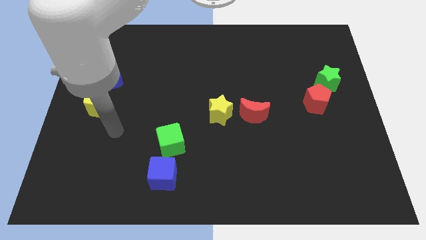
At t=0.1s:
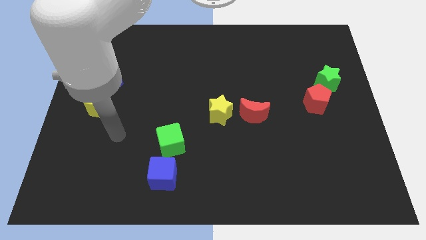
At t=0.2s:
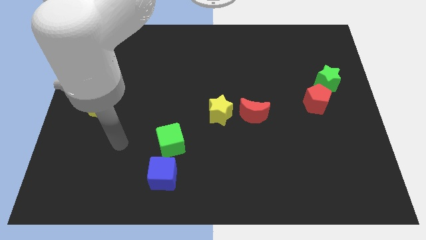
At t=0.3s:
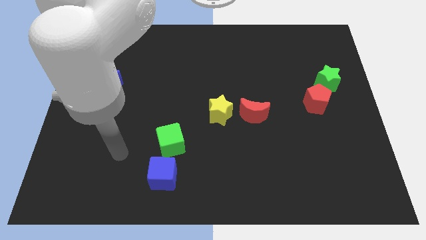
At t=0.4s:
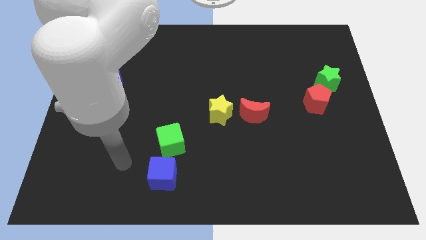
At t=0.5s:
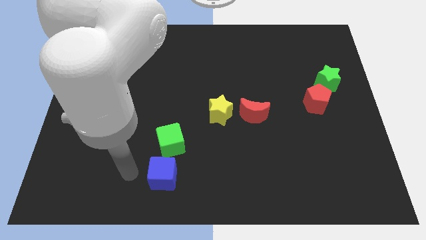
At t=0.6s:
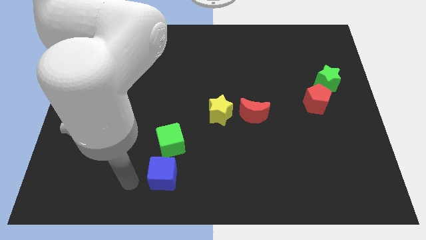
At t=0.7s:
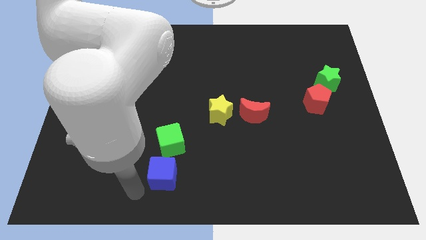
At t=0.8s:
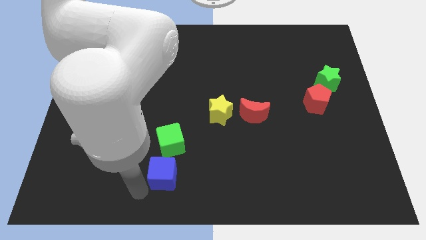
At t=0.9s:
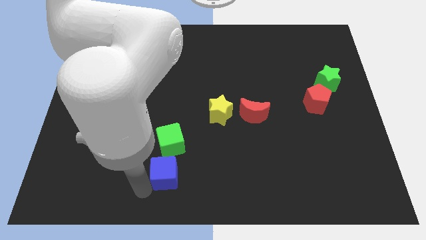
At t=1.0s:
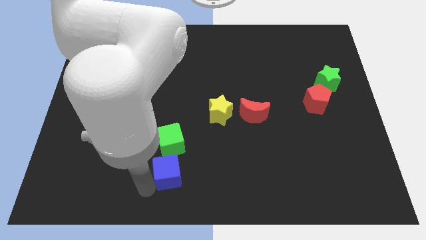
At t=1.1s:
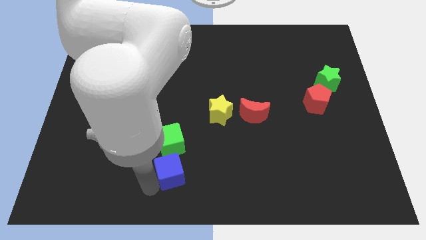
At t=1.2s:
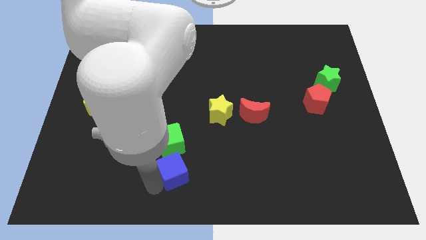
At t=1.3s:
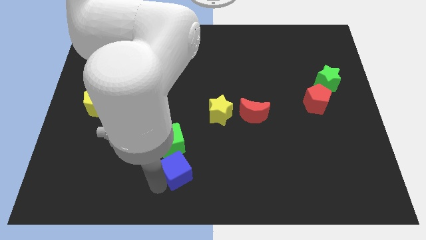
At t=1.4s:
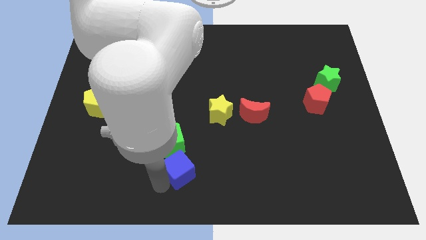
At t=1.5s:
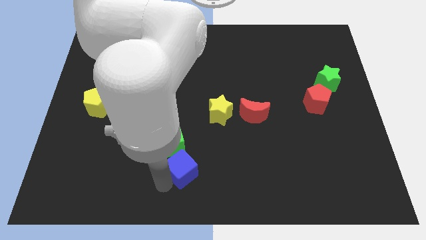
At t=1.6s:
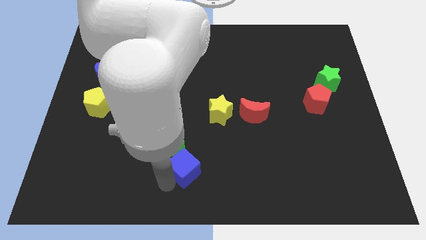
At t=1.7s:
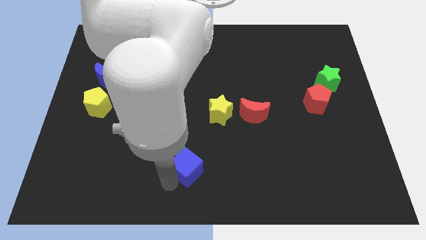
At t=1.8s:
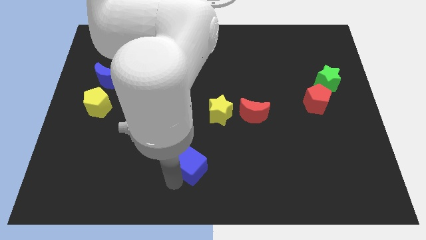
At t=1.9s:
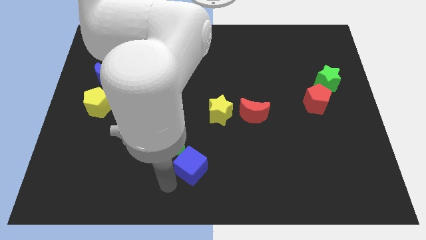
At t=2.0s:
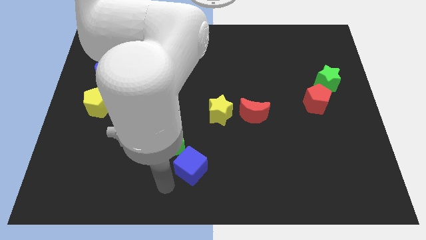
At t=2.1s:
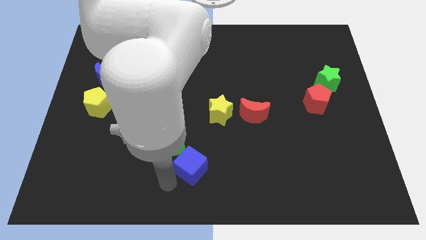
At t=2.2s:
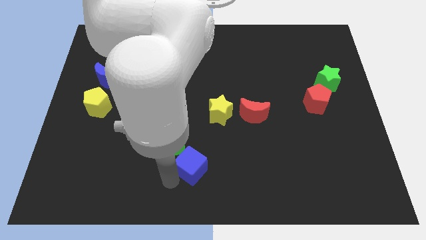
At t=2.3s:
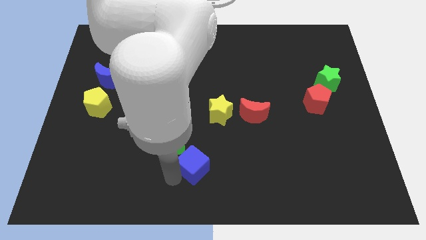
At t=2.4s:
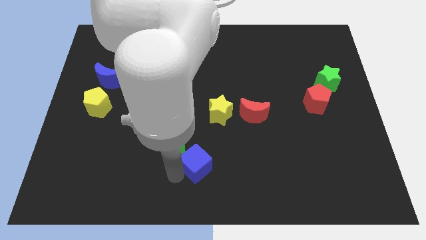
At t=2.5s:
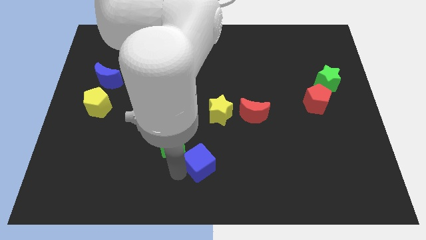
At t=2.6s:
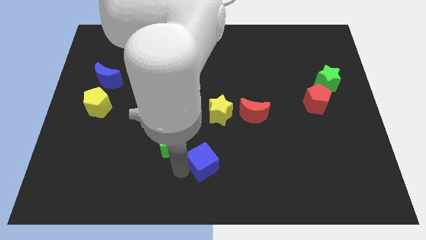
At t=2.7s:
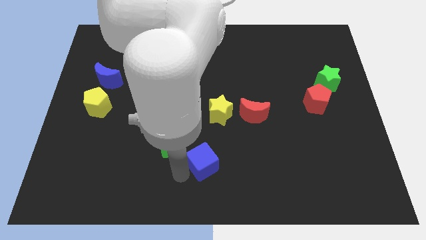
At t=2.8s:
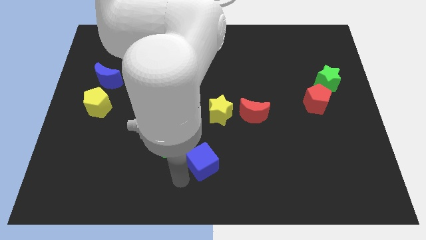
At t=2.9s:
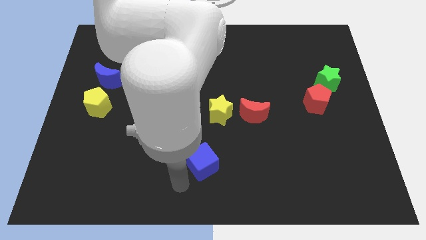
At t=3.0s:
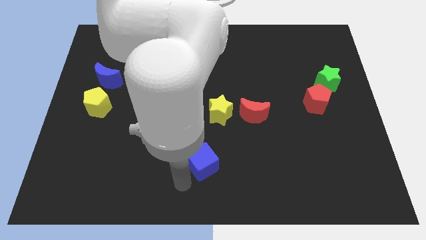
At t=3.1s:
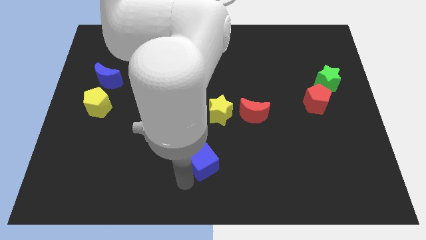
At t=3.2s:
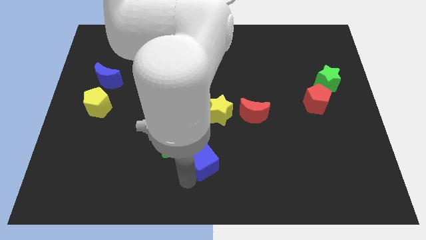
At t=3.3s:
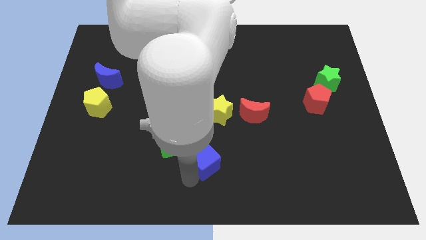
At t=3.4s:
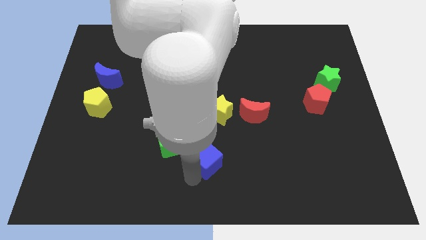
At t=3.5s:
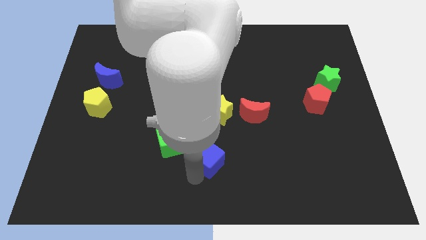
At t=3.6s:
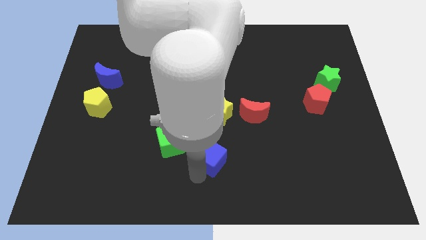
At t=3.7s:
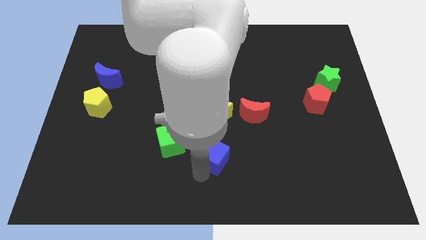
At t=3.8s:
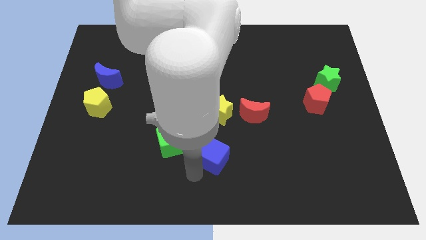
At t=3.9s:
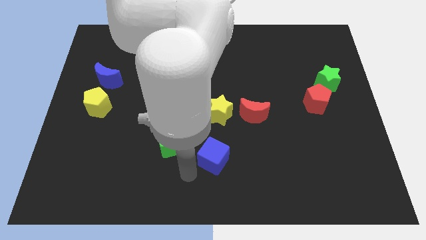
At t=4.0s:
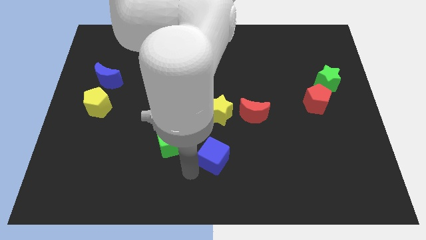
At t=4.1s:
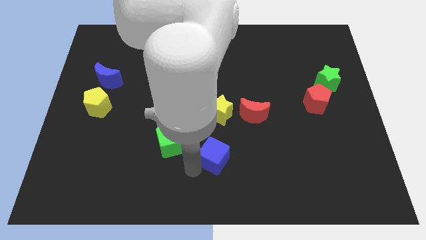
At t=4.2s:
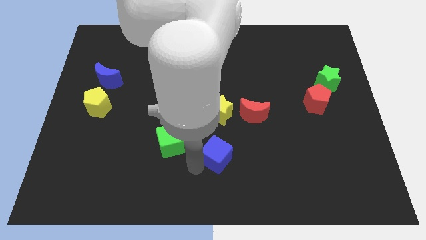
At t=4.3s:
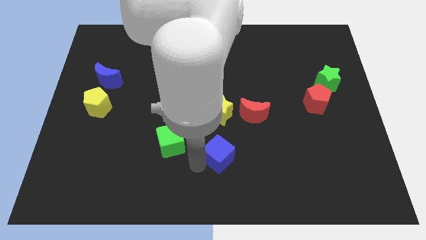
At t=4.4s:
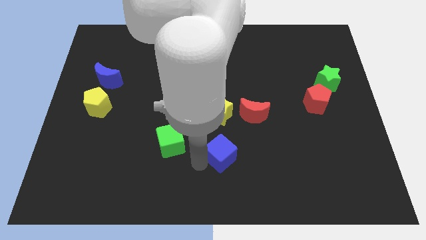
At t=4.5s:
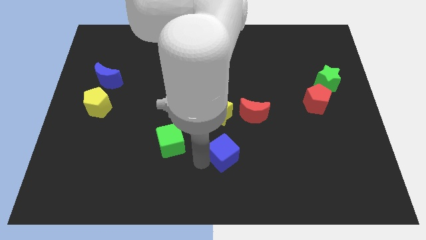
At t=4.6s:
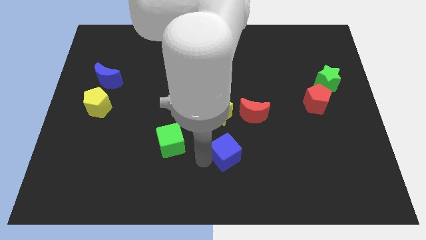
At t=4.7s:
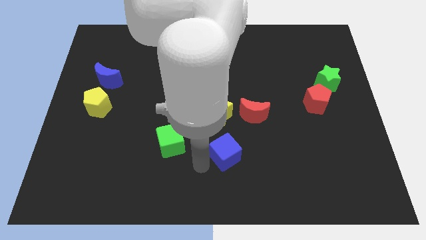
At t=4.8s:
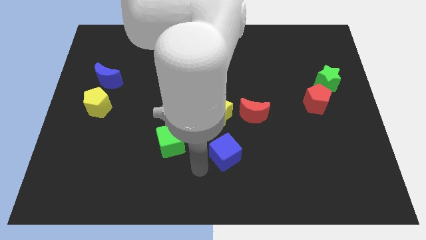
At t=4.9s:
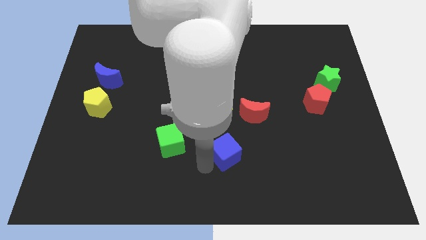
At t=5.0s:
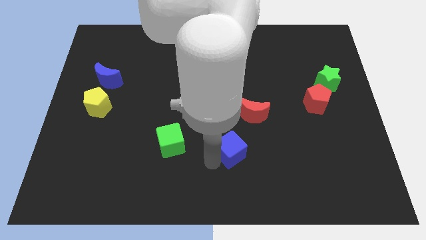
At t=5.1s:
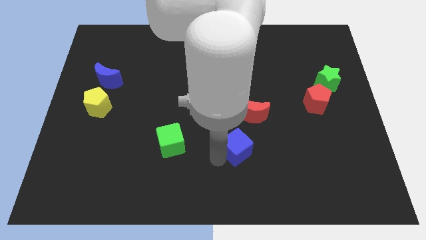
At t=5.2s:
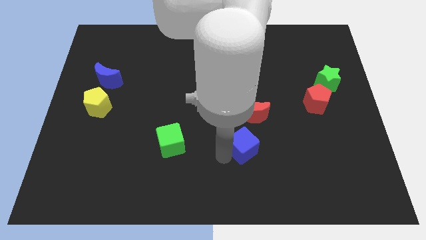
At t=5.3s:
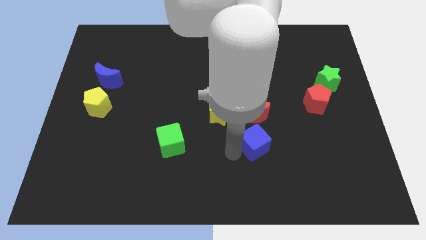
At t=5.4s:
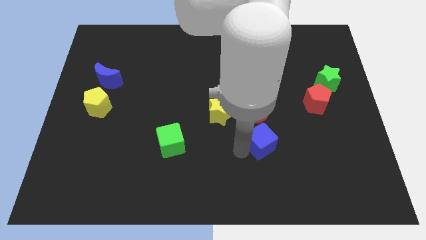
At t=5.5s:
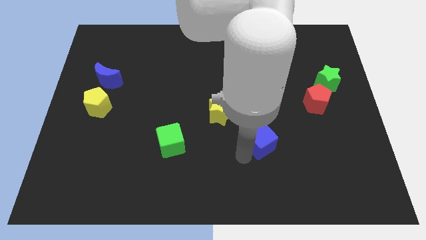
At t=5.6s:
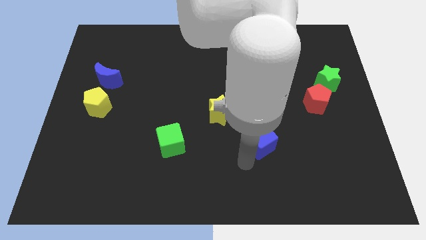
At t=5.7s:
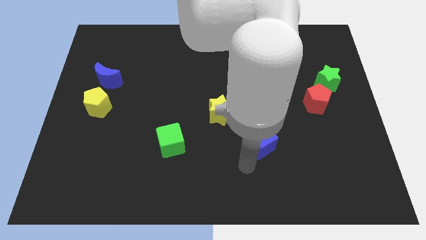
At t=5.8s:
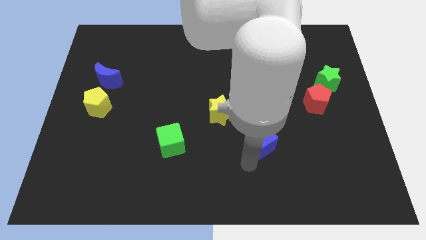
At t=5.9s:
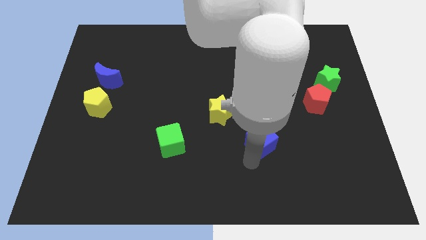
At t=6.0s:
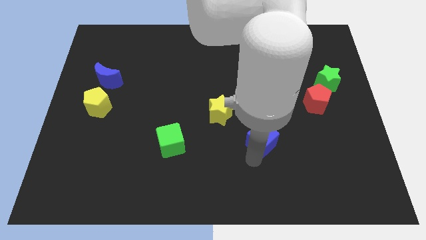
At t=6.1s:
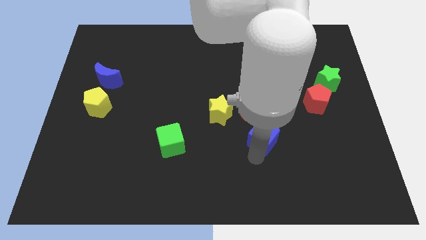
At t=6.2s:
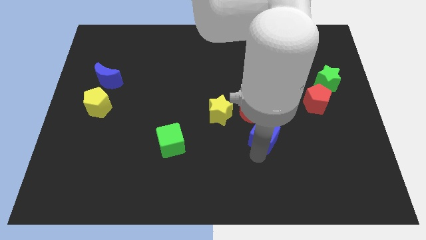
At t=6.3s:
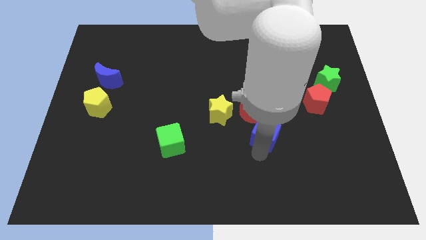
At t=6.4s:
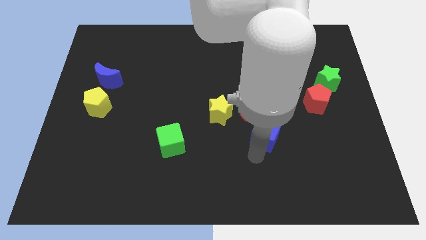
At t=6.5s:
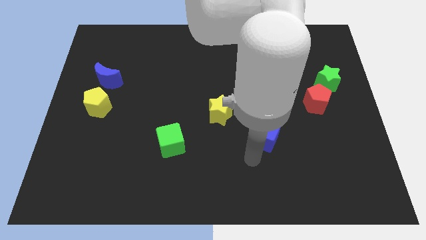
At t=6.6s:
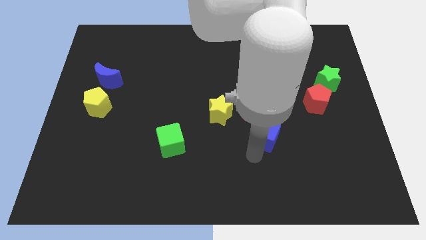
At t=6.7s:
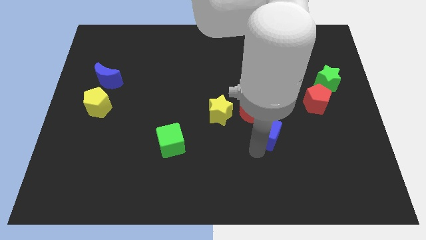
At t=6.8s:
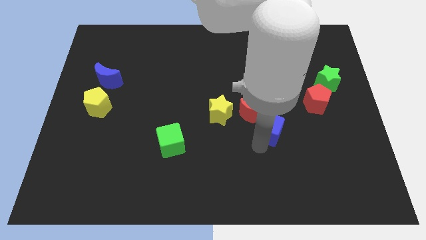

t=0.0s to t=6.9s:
slide the blue cube up and to the right

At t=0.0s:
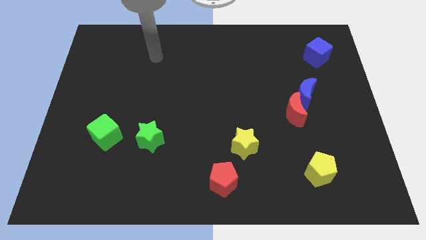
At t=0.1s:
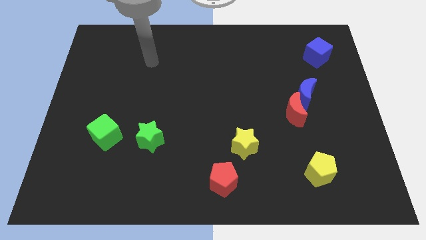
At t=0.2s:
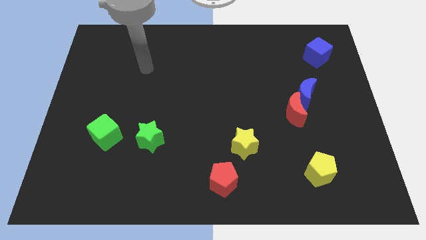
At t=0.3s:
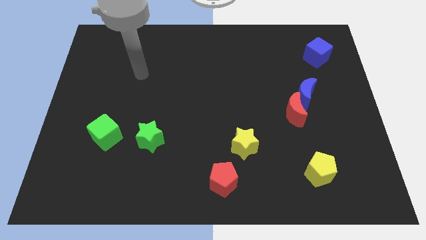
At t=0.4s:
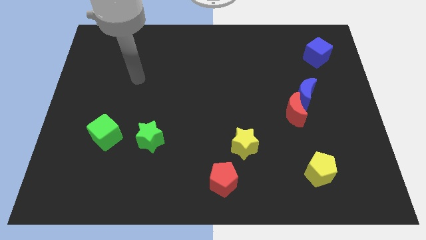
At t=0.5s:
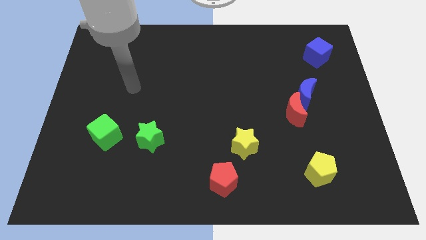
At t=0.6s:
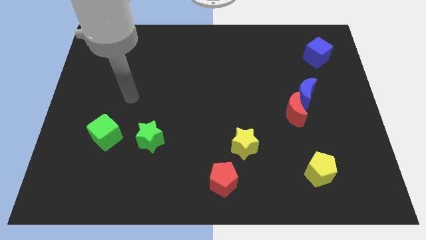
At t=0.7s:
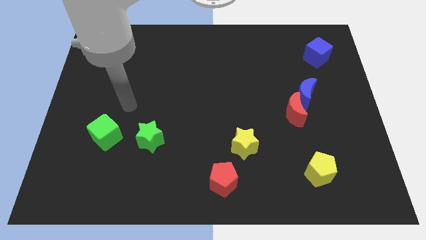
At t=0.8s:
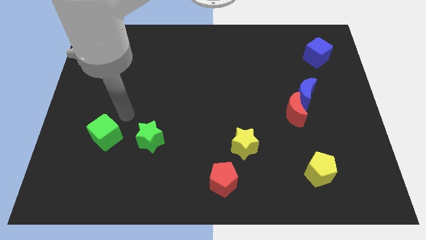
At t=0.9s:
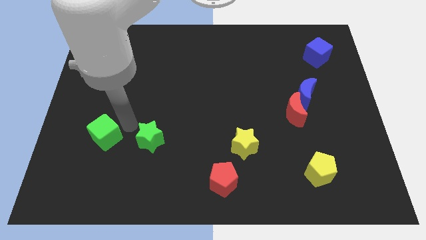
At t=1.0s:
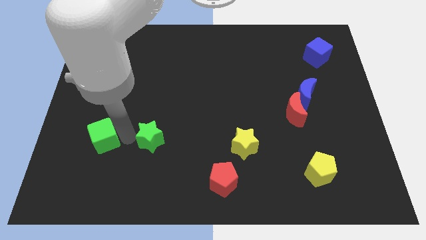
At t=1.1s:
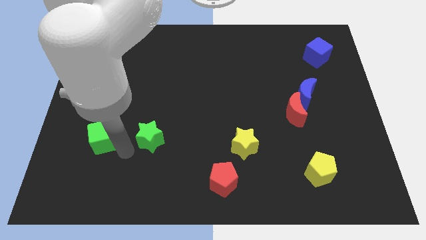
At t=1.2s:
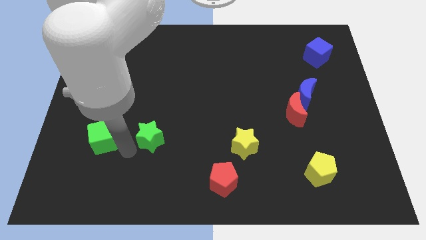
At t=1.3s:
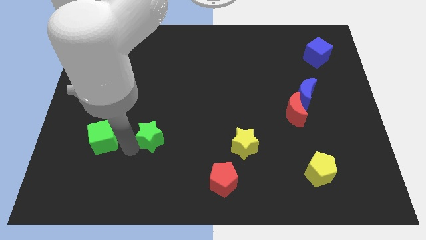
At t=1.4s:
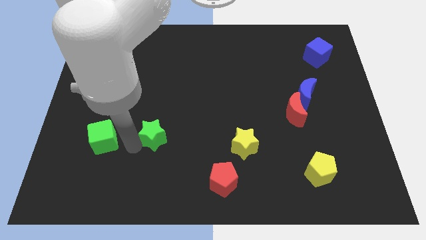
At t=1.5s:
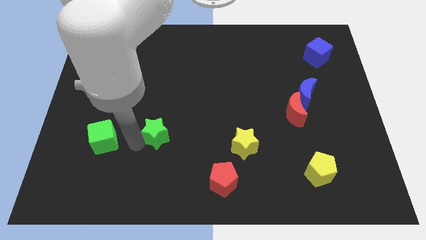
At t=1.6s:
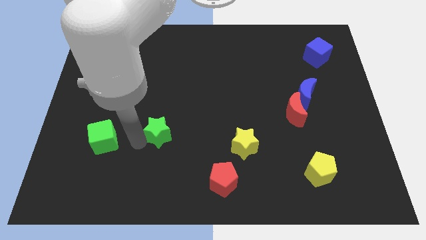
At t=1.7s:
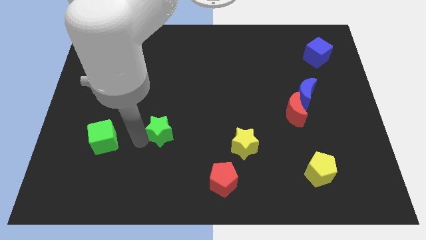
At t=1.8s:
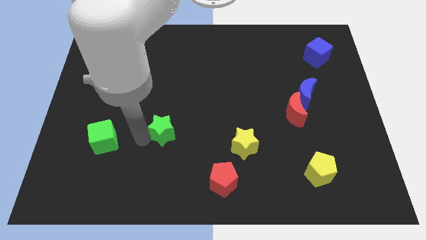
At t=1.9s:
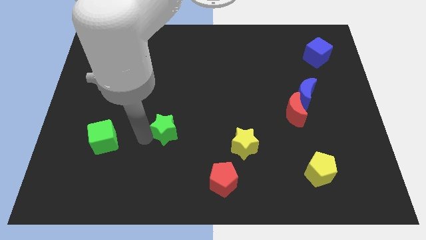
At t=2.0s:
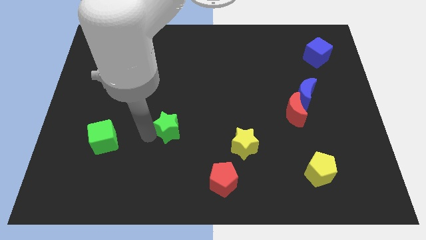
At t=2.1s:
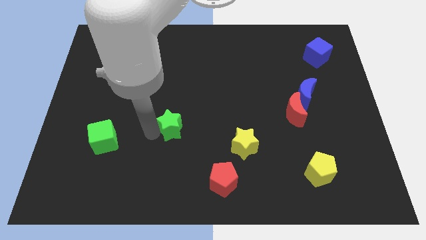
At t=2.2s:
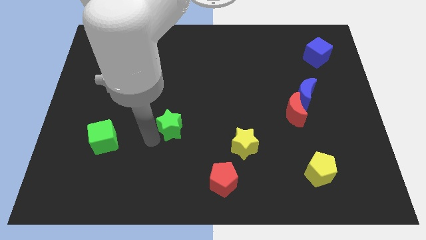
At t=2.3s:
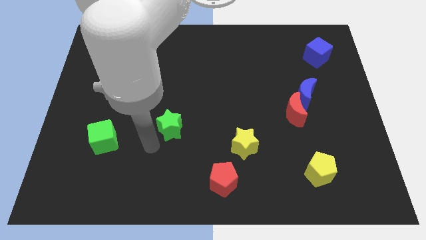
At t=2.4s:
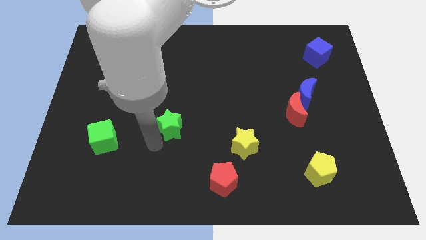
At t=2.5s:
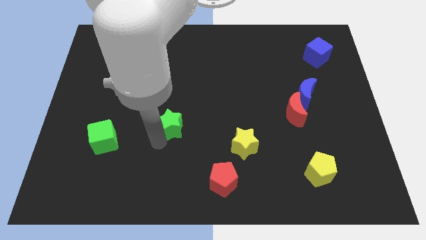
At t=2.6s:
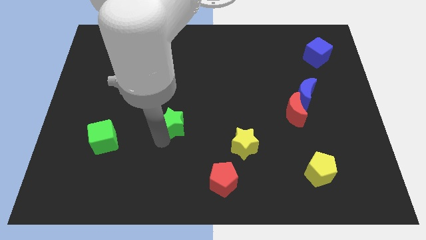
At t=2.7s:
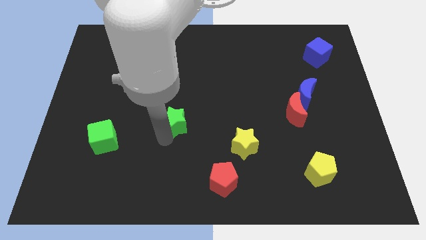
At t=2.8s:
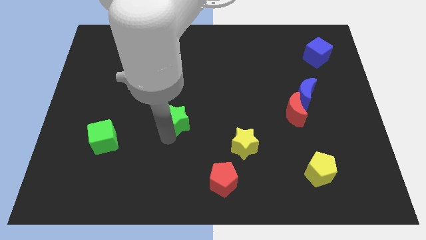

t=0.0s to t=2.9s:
slide the green star up and right a little bit
